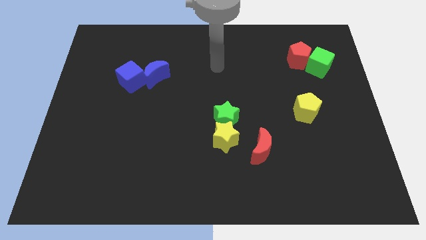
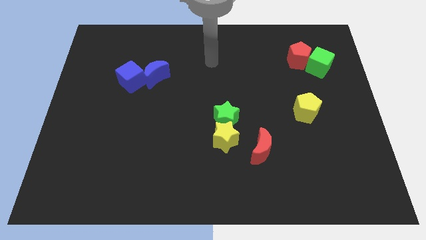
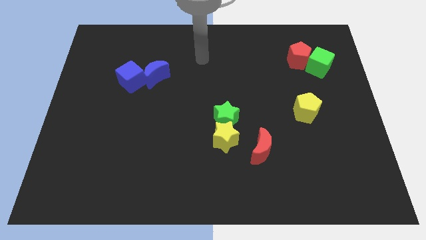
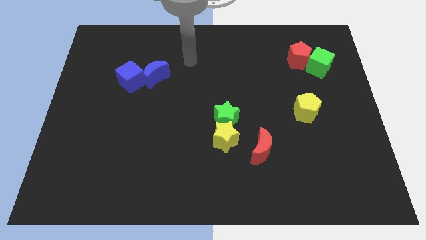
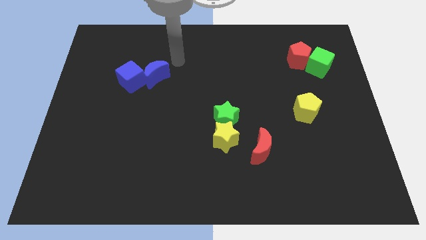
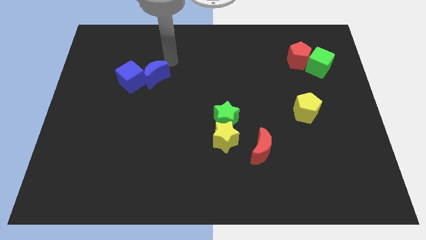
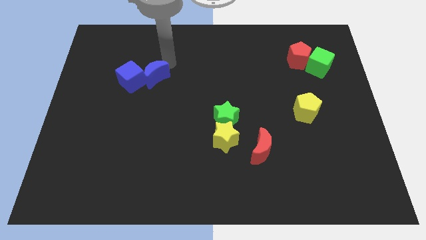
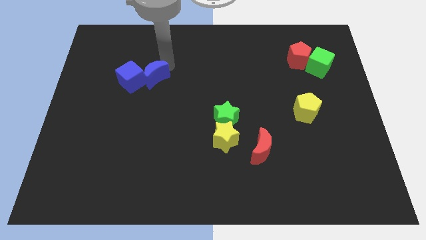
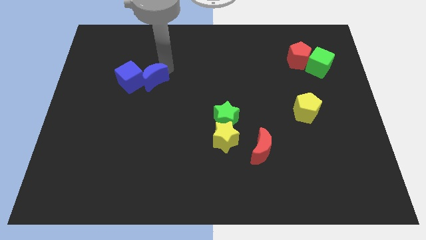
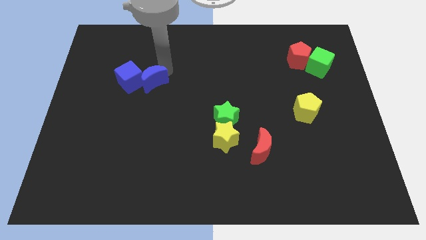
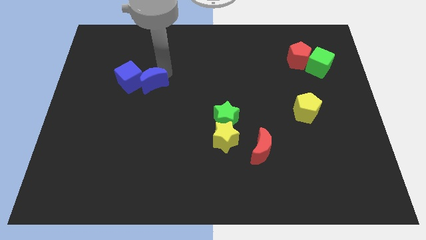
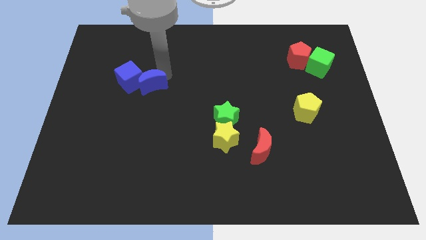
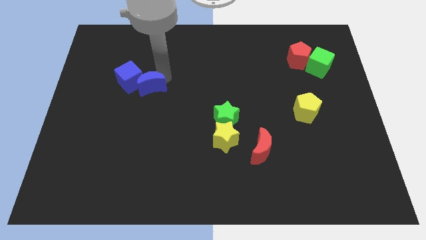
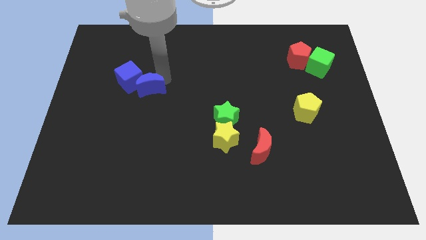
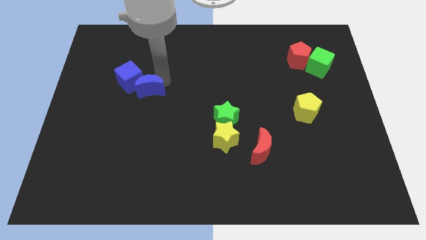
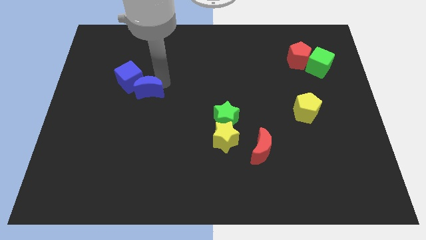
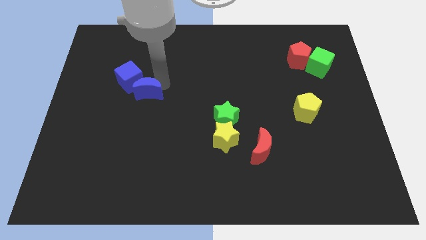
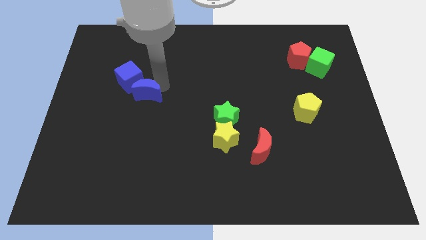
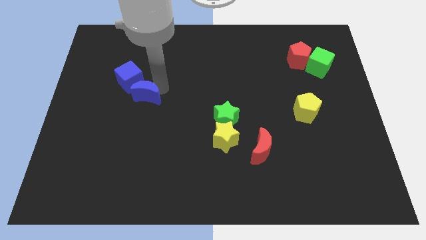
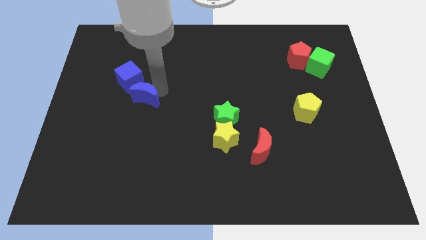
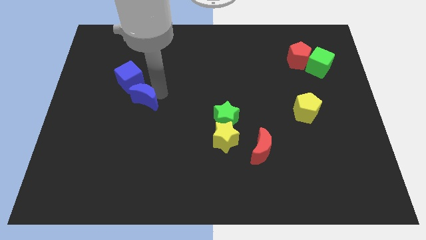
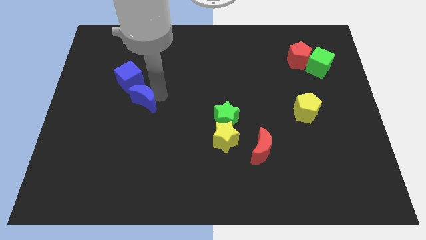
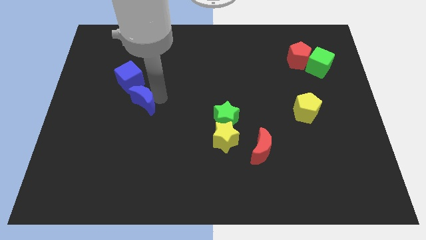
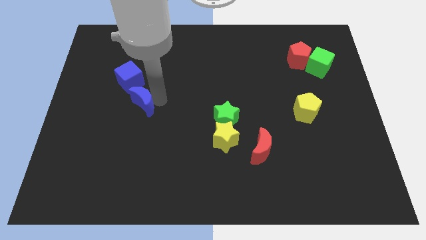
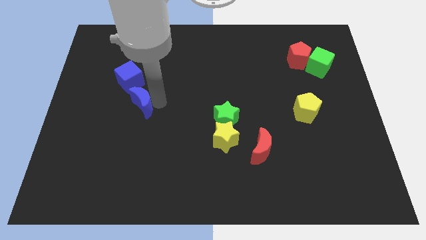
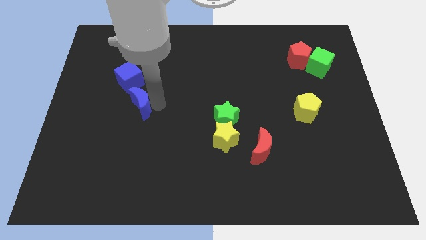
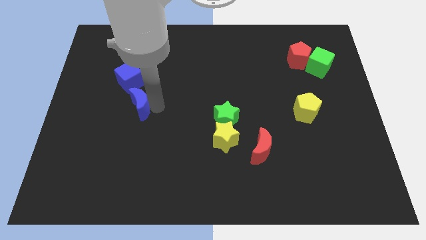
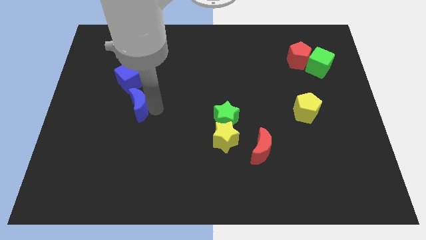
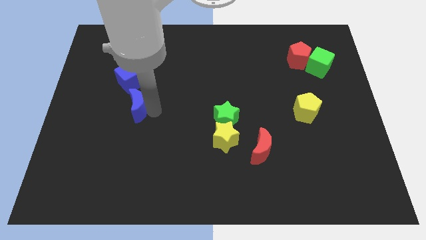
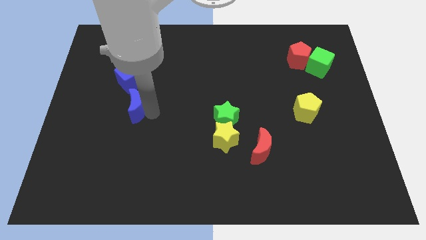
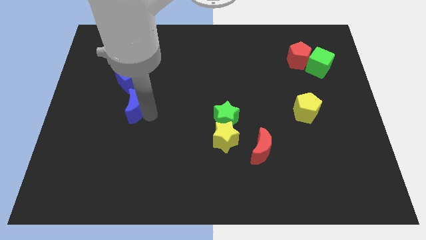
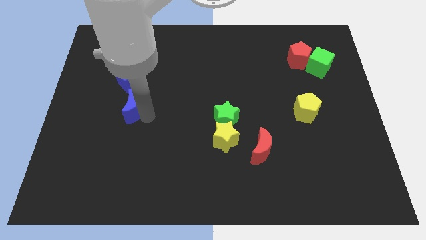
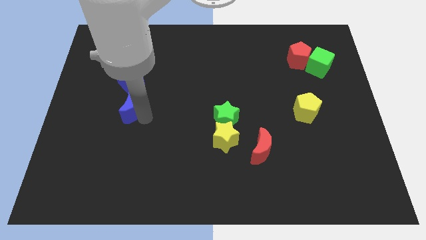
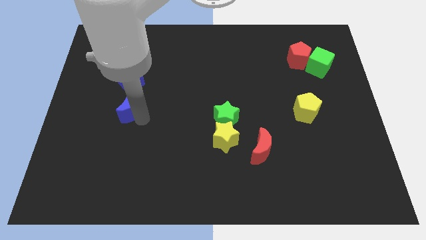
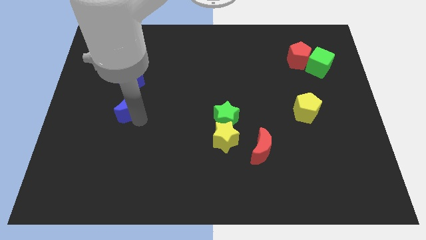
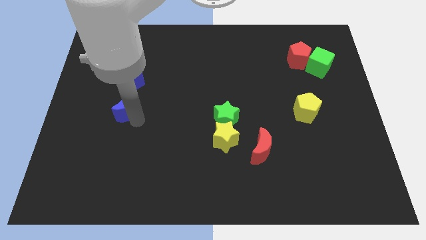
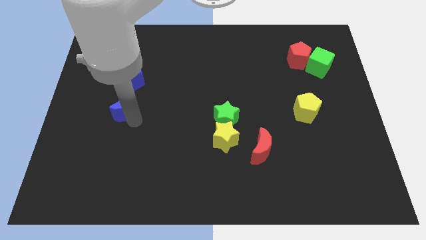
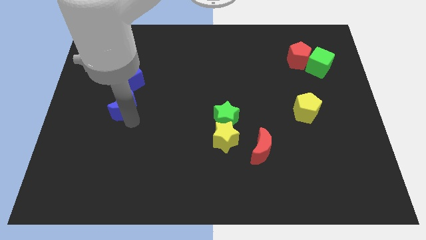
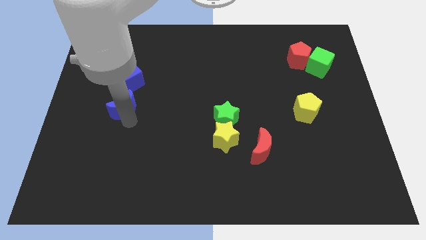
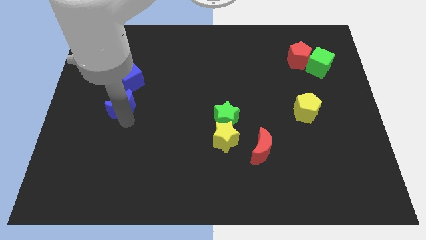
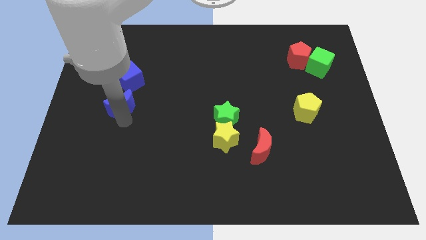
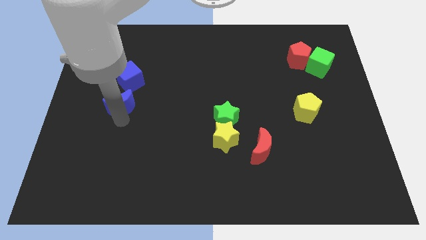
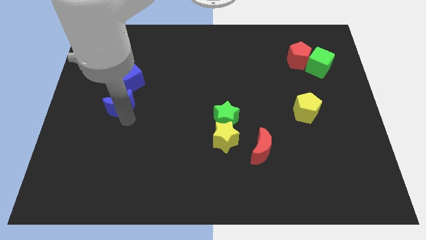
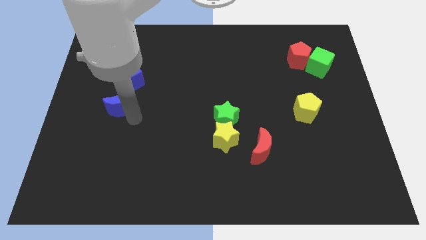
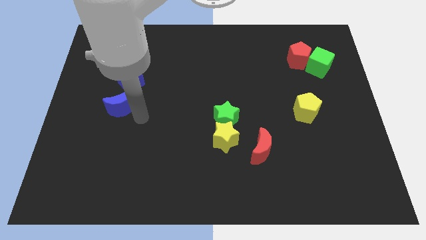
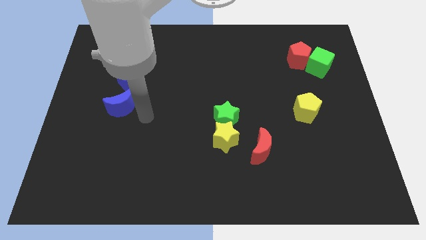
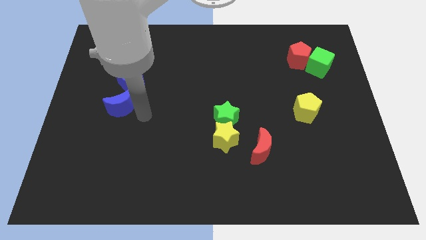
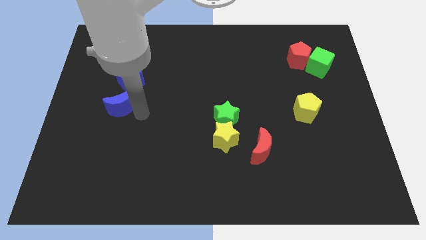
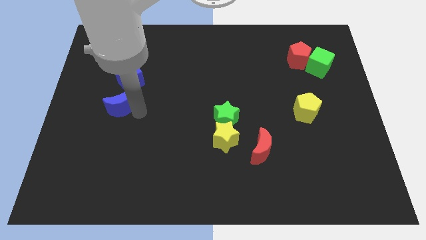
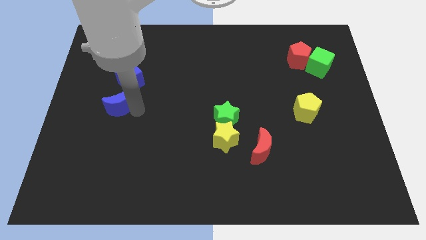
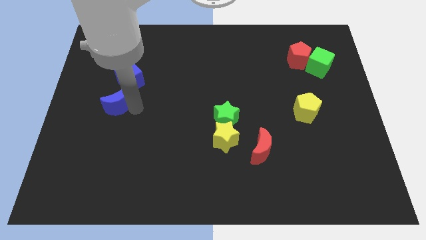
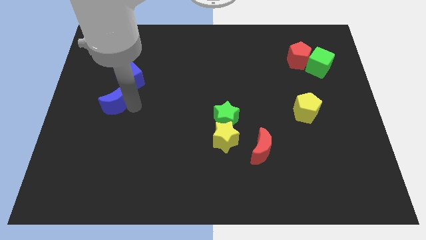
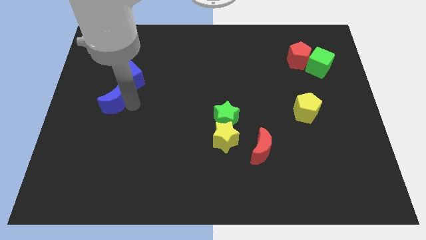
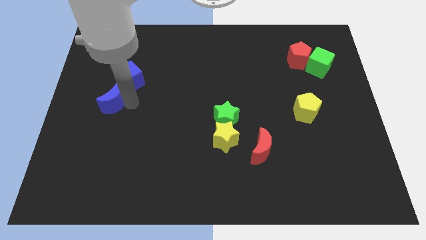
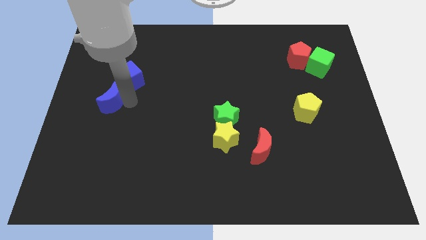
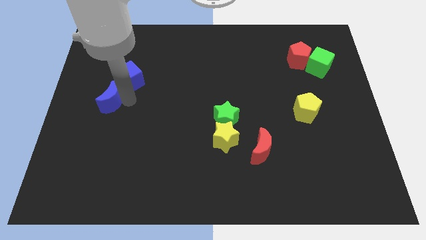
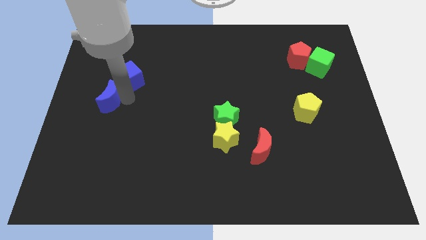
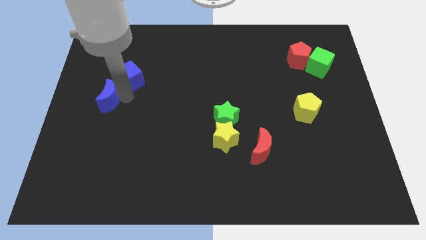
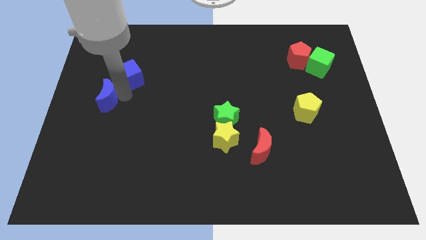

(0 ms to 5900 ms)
slide the blue moon to the left side of the board
